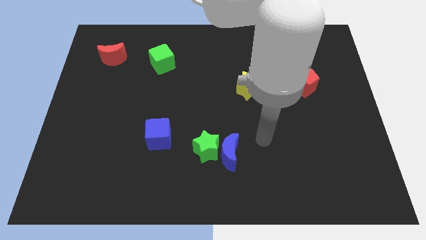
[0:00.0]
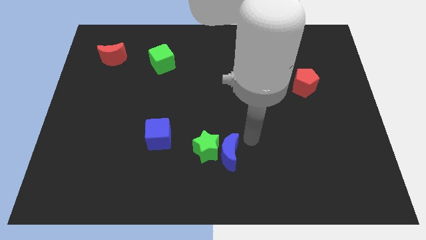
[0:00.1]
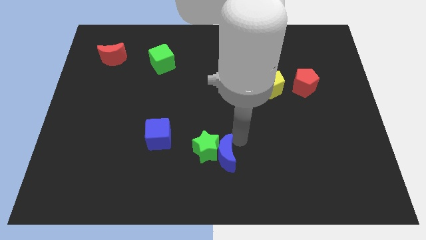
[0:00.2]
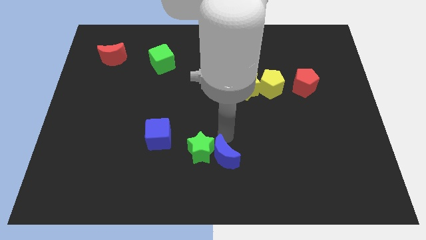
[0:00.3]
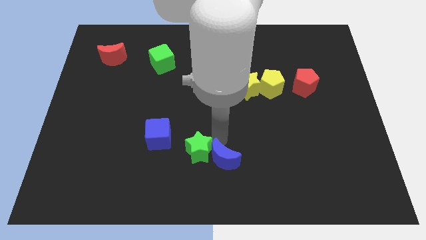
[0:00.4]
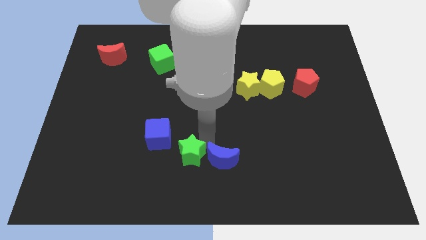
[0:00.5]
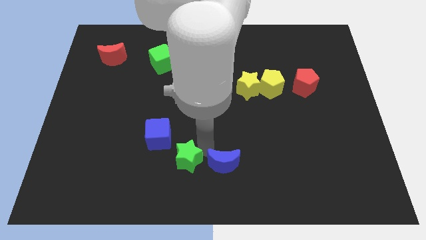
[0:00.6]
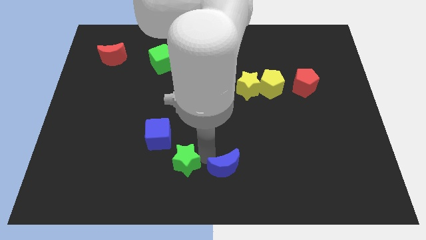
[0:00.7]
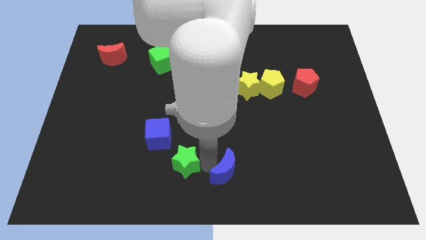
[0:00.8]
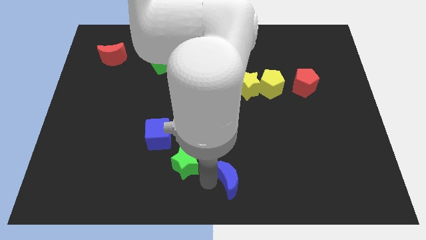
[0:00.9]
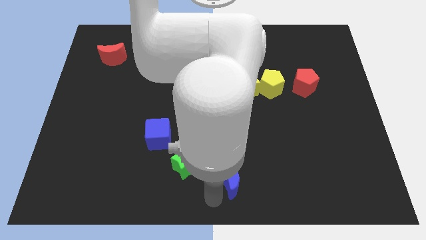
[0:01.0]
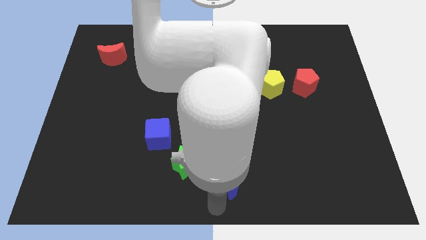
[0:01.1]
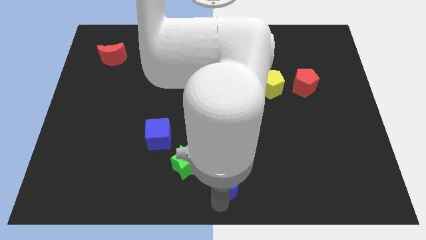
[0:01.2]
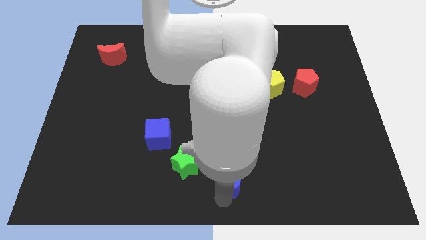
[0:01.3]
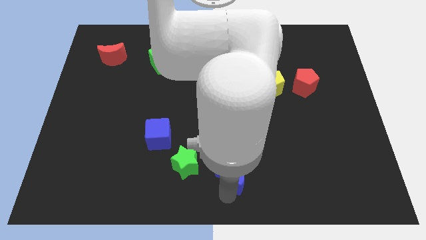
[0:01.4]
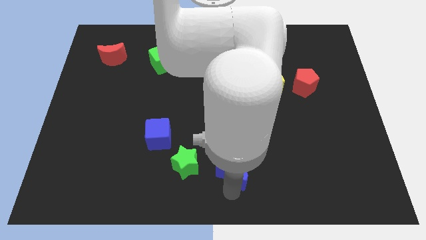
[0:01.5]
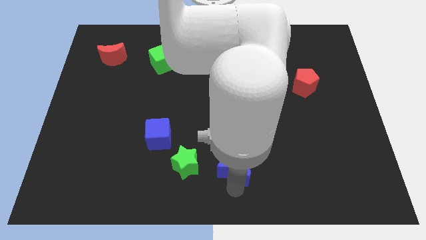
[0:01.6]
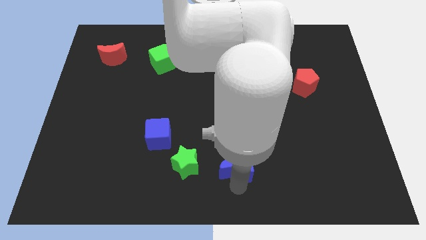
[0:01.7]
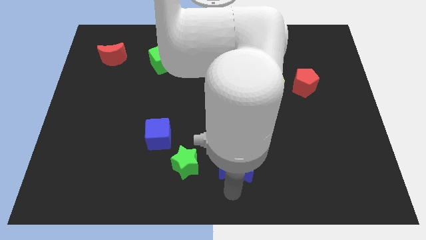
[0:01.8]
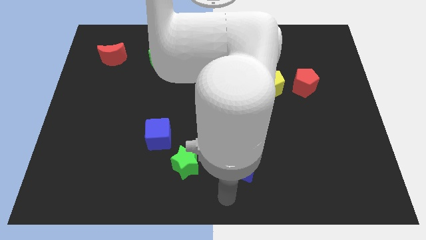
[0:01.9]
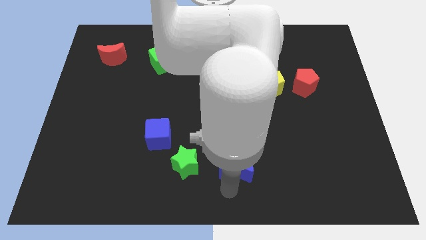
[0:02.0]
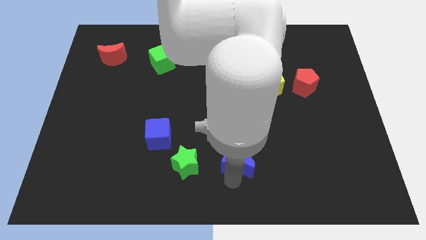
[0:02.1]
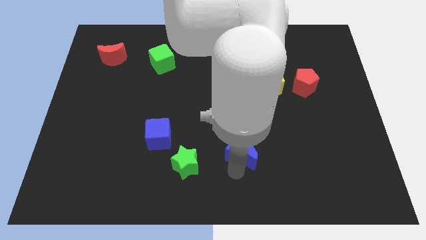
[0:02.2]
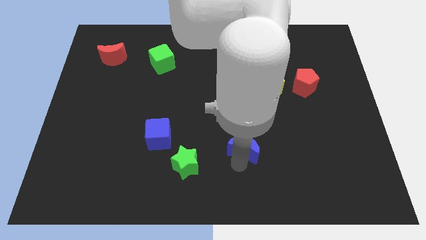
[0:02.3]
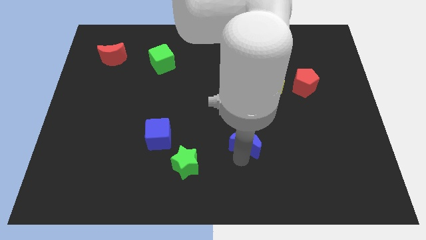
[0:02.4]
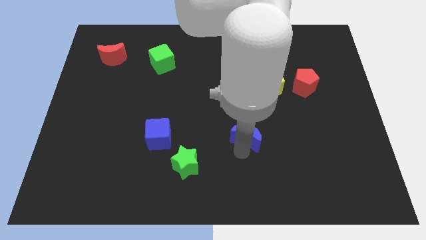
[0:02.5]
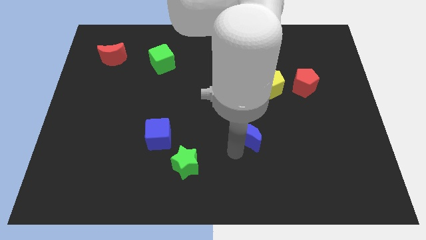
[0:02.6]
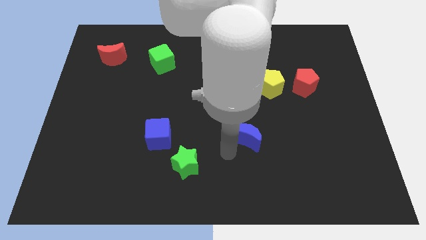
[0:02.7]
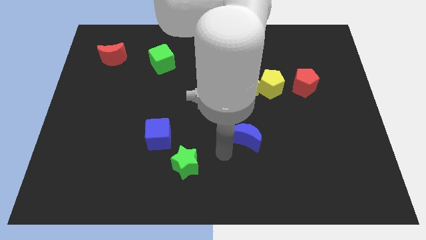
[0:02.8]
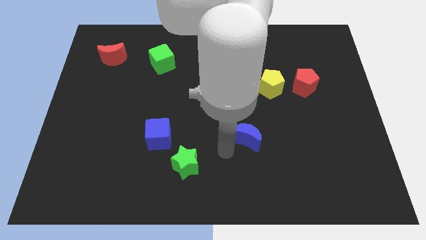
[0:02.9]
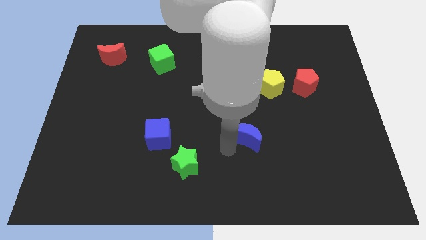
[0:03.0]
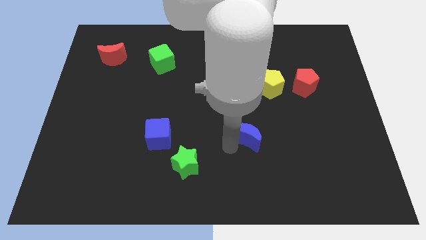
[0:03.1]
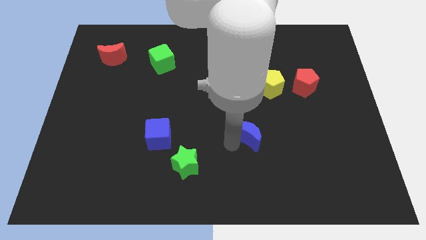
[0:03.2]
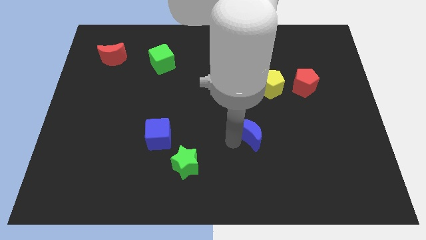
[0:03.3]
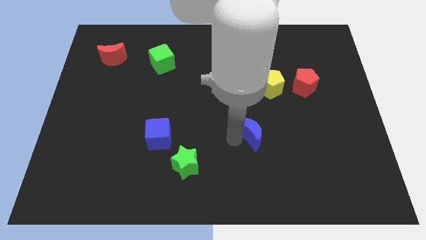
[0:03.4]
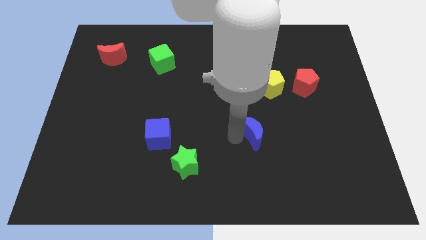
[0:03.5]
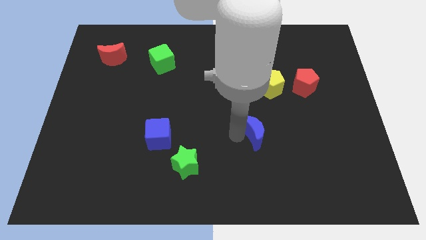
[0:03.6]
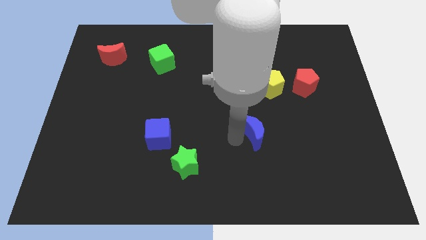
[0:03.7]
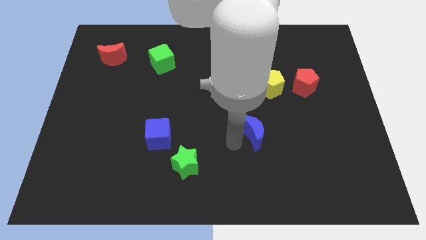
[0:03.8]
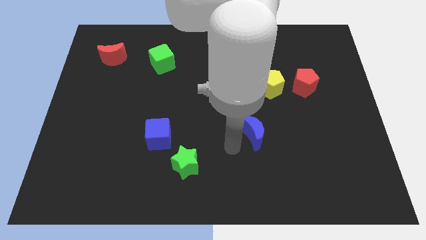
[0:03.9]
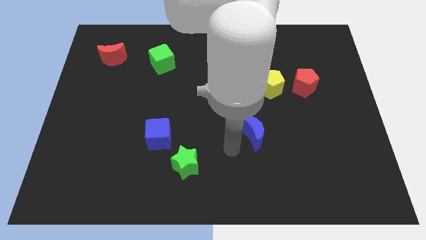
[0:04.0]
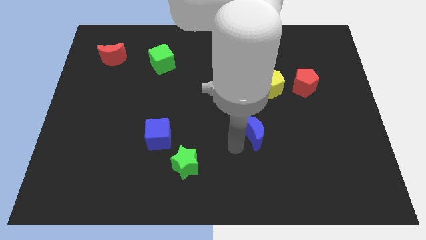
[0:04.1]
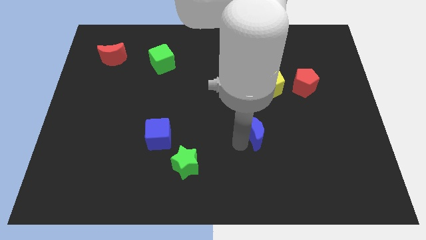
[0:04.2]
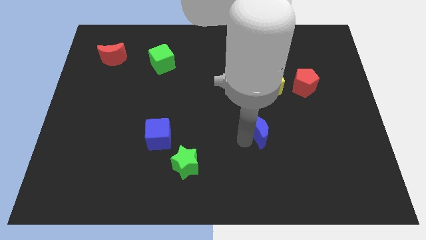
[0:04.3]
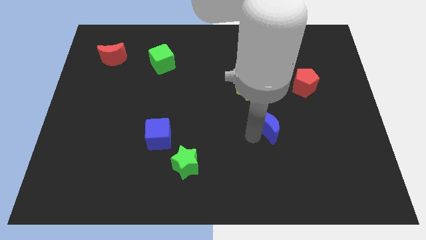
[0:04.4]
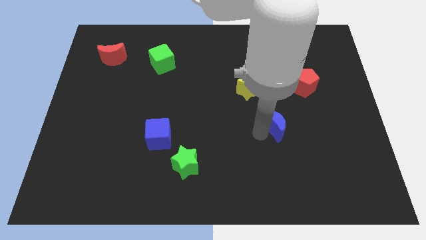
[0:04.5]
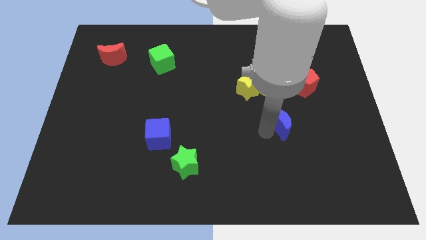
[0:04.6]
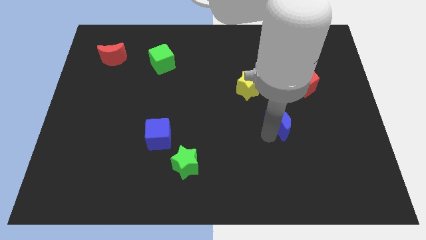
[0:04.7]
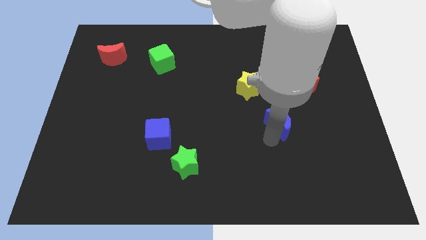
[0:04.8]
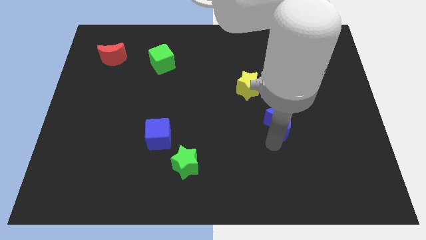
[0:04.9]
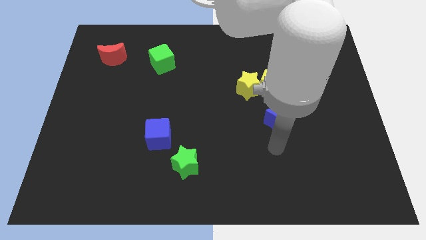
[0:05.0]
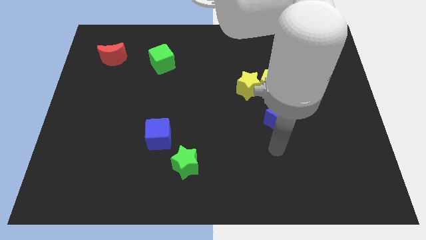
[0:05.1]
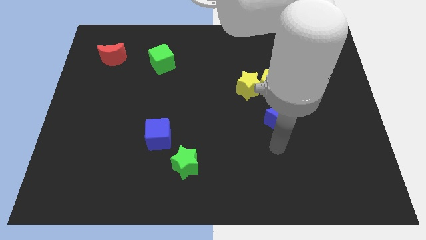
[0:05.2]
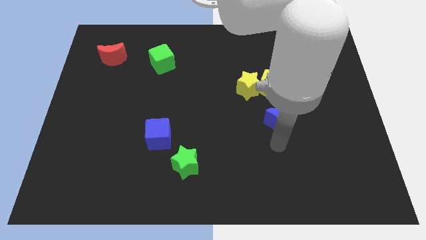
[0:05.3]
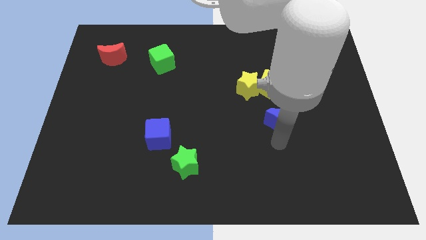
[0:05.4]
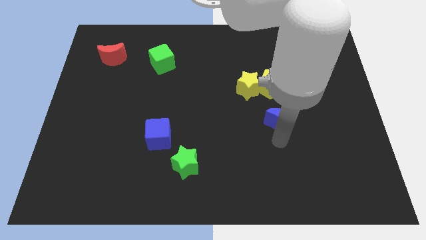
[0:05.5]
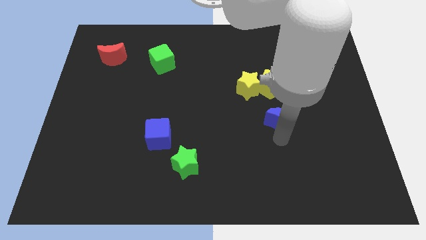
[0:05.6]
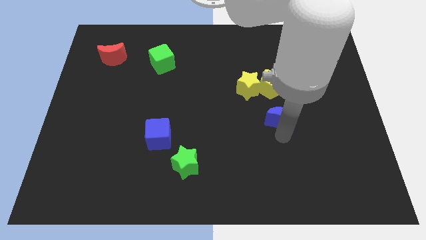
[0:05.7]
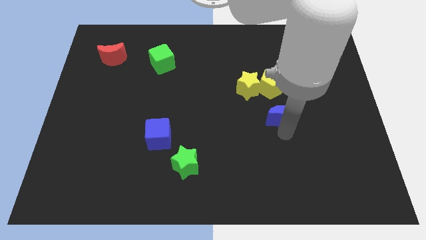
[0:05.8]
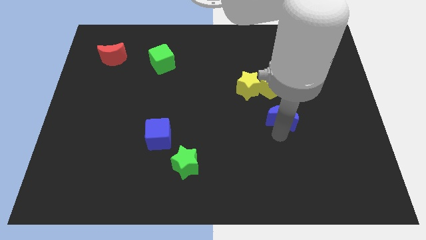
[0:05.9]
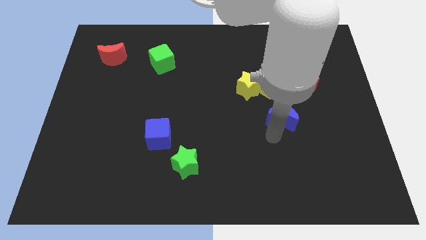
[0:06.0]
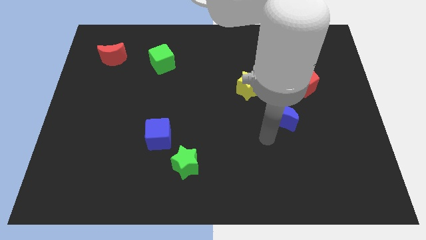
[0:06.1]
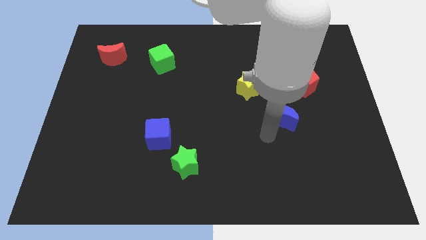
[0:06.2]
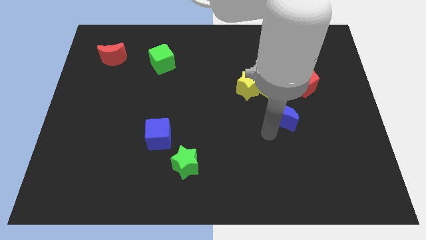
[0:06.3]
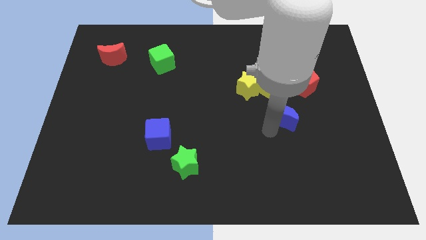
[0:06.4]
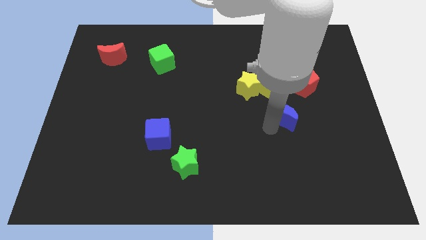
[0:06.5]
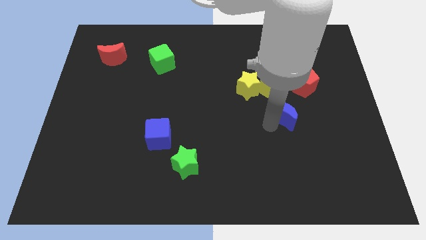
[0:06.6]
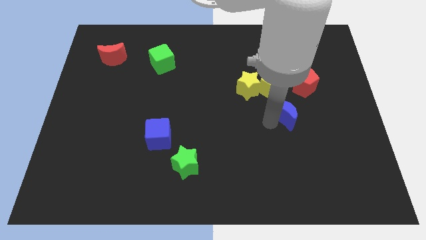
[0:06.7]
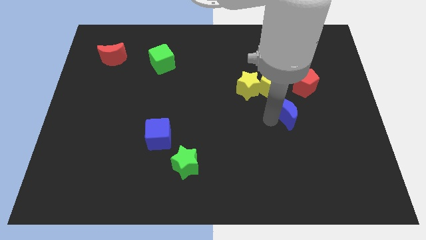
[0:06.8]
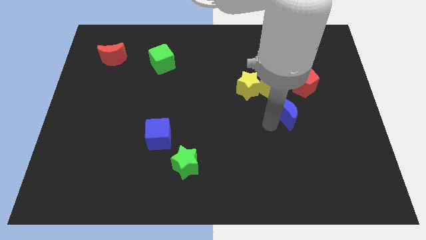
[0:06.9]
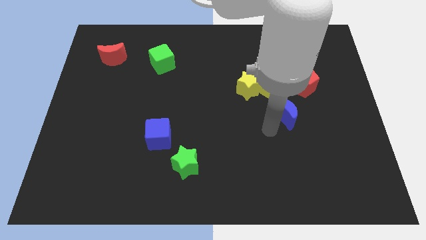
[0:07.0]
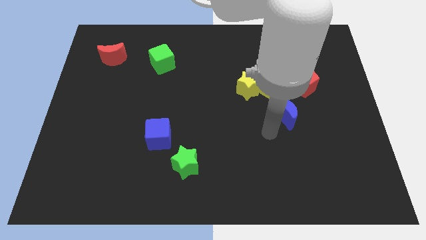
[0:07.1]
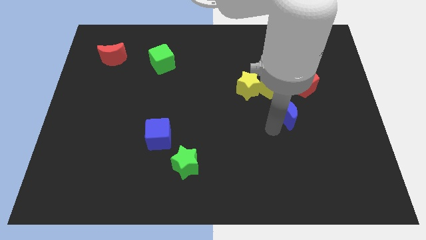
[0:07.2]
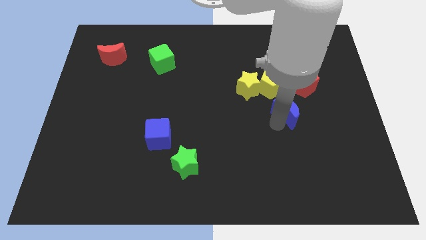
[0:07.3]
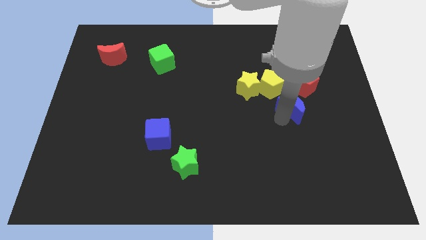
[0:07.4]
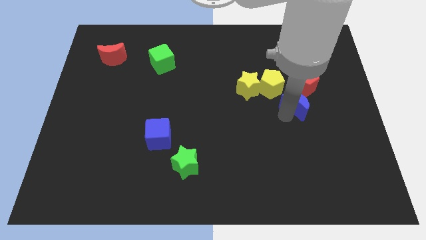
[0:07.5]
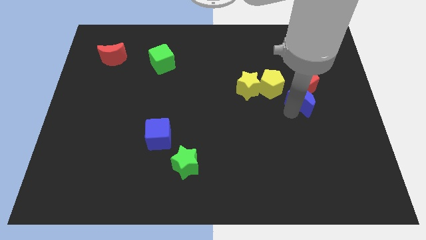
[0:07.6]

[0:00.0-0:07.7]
put the blue moon to the red pentagon

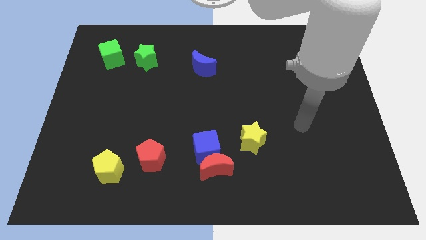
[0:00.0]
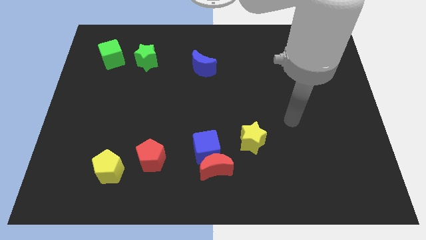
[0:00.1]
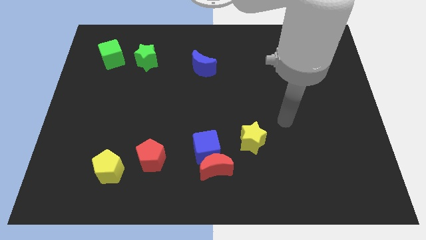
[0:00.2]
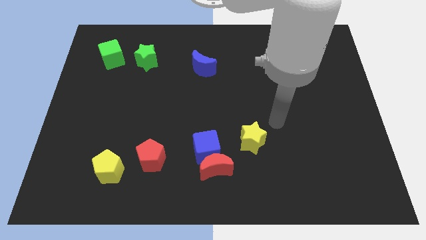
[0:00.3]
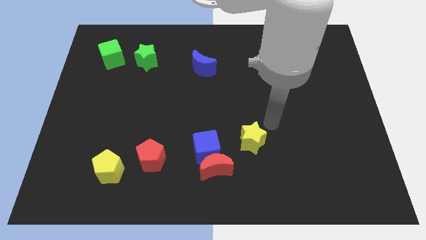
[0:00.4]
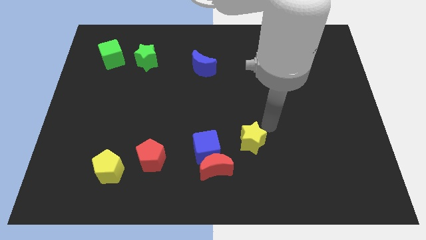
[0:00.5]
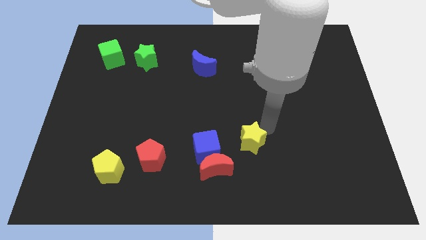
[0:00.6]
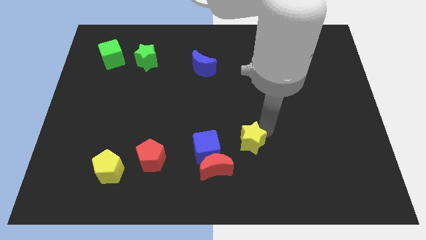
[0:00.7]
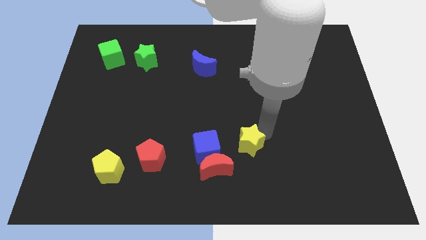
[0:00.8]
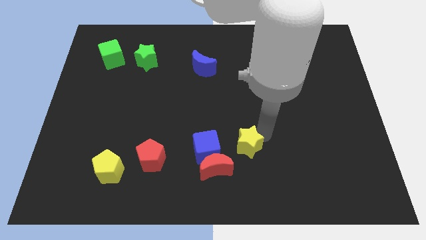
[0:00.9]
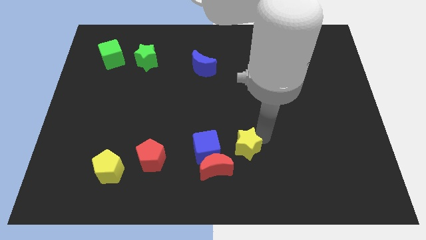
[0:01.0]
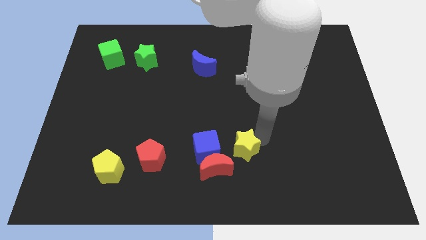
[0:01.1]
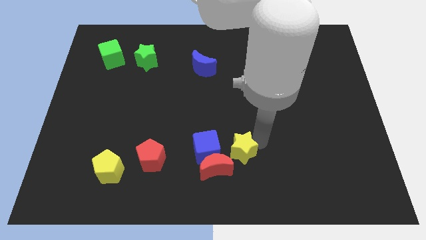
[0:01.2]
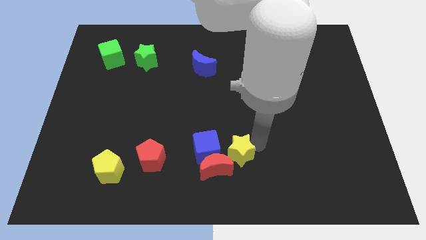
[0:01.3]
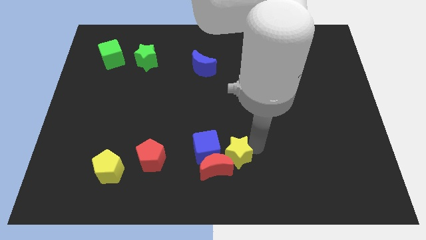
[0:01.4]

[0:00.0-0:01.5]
push the yellow star next to the red moon
